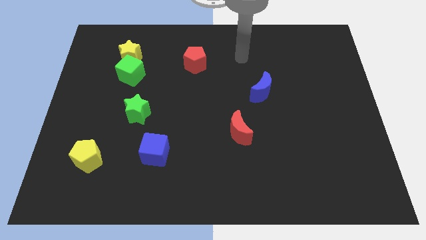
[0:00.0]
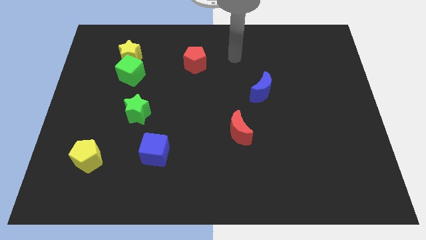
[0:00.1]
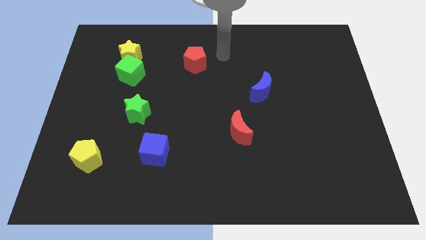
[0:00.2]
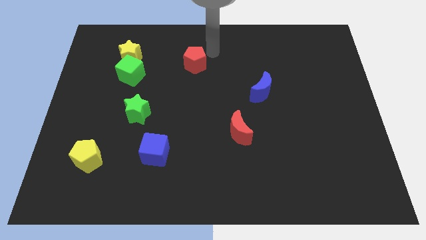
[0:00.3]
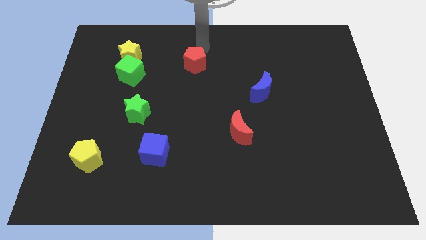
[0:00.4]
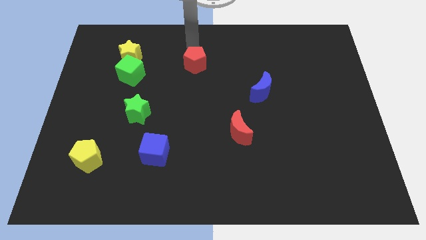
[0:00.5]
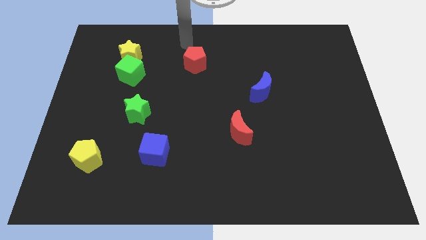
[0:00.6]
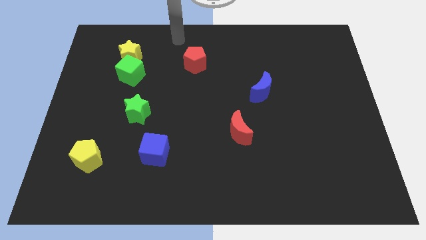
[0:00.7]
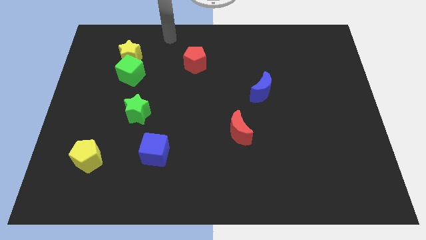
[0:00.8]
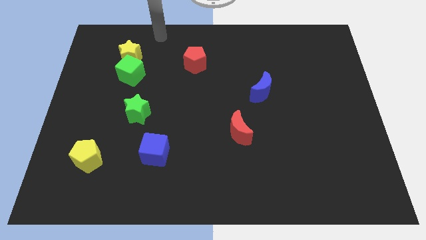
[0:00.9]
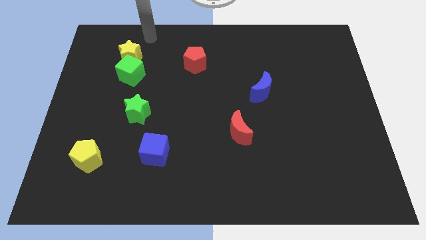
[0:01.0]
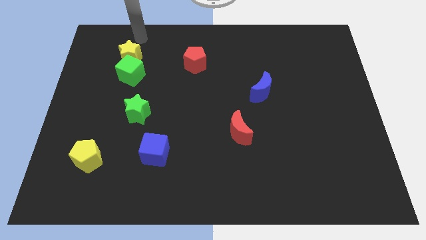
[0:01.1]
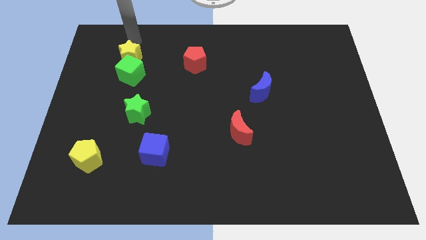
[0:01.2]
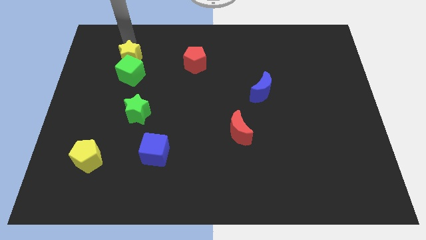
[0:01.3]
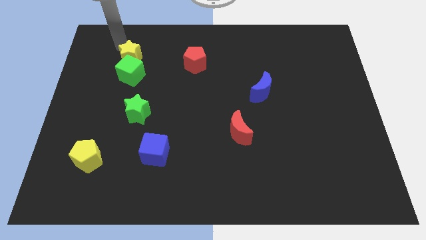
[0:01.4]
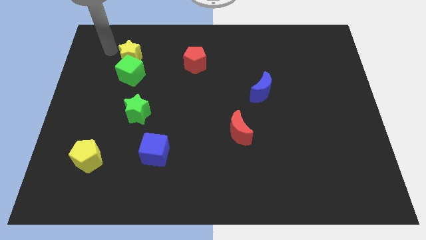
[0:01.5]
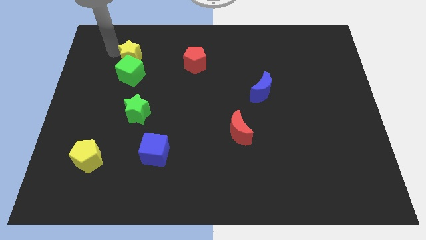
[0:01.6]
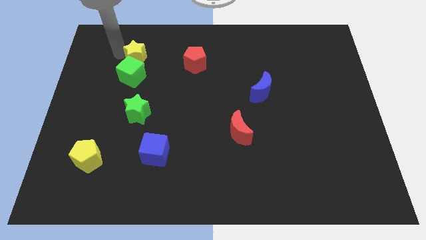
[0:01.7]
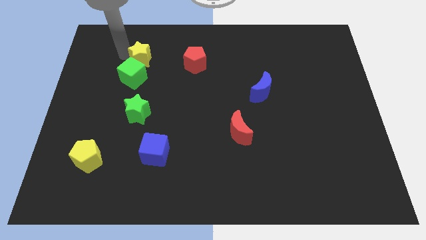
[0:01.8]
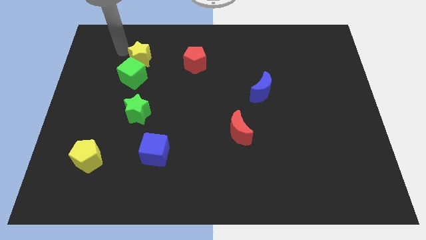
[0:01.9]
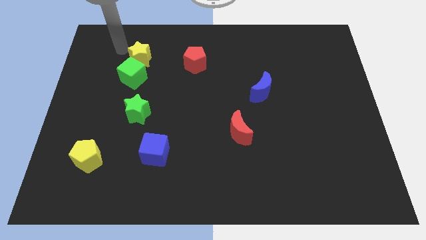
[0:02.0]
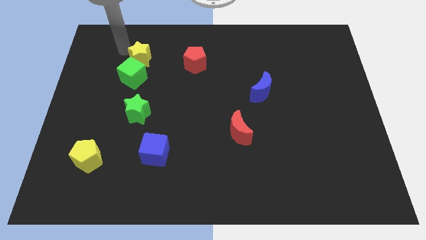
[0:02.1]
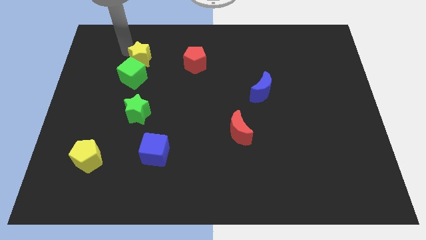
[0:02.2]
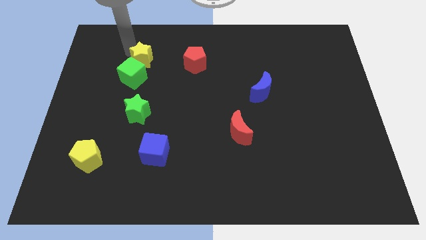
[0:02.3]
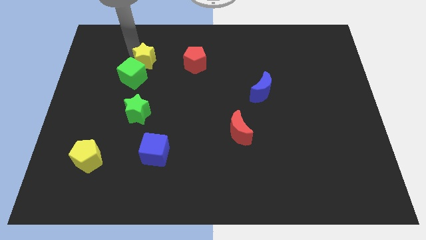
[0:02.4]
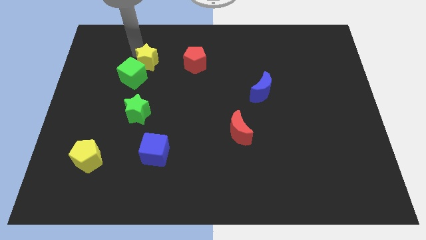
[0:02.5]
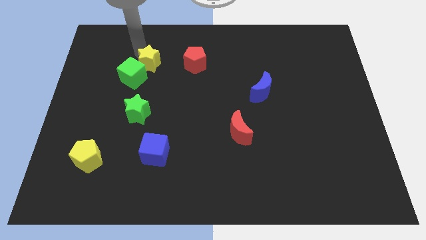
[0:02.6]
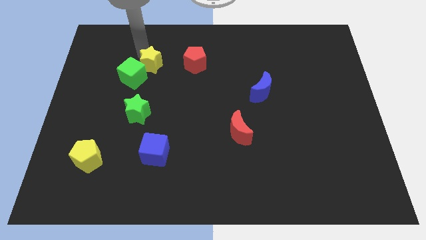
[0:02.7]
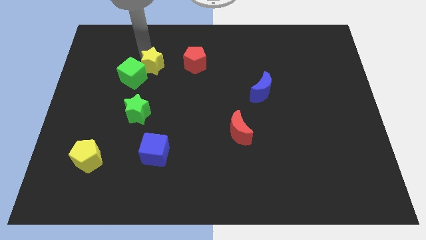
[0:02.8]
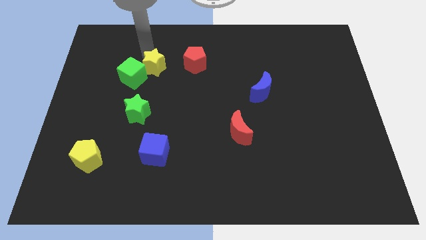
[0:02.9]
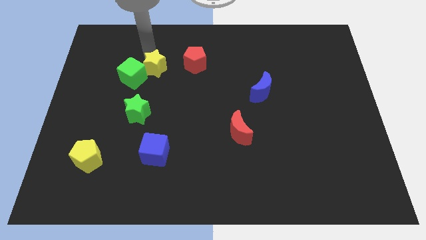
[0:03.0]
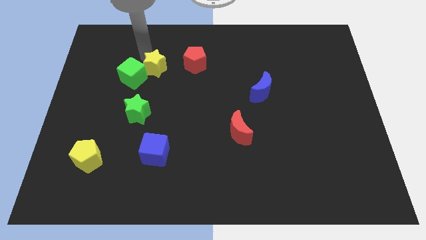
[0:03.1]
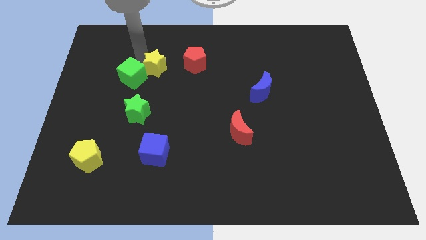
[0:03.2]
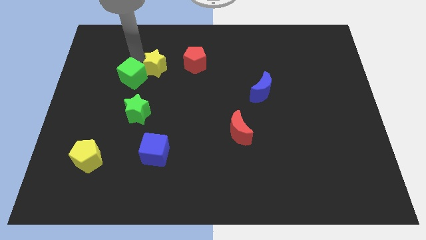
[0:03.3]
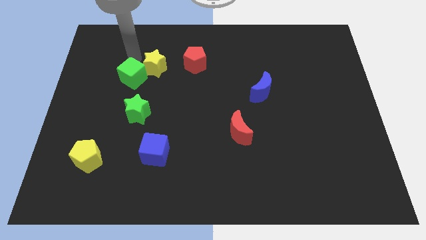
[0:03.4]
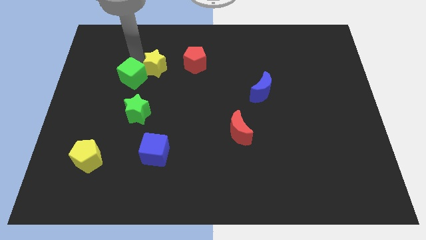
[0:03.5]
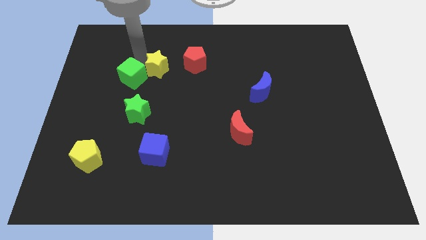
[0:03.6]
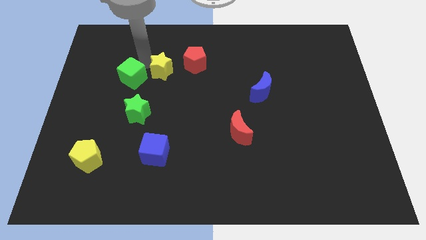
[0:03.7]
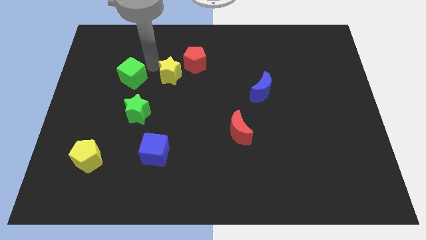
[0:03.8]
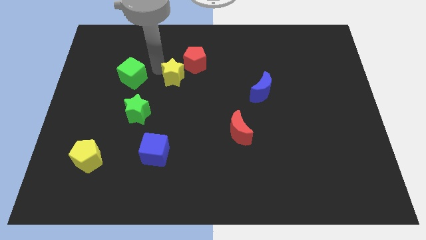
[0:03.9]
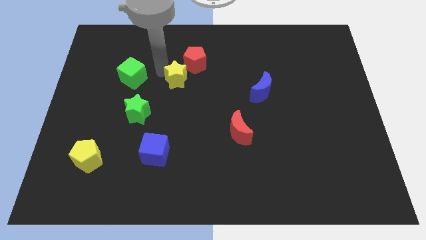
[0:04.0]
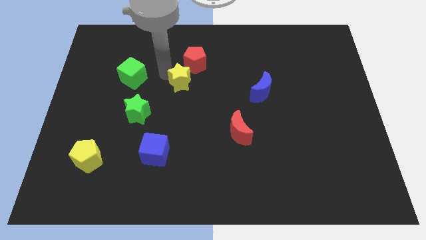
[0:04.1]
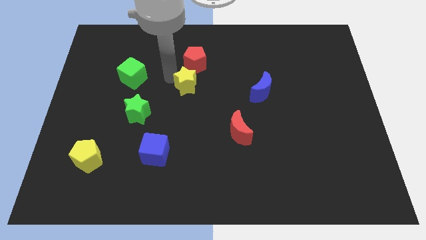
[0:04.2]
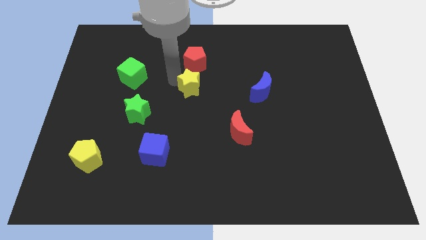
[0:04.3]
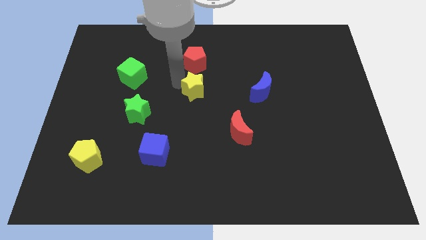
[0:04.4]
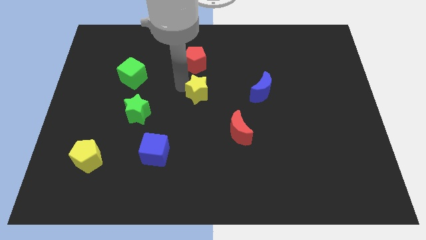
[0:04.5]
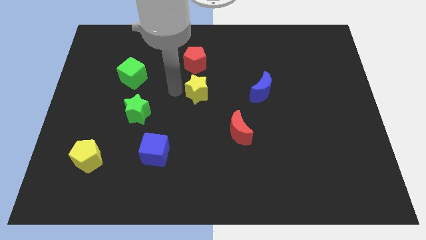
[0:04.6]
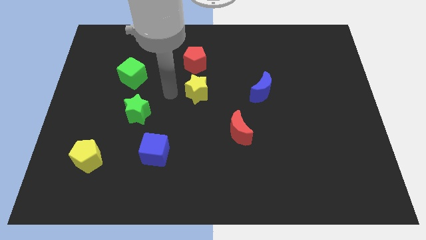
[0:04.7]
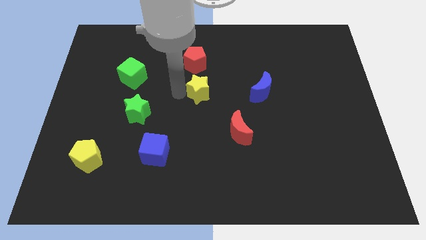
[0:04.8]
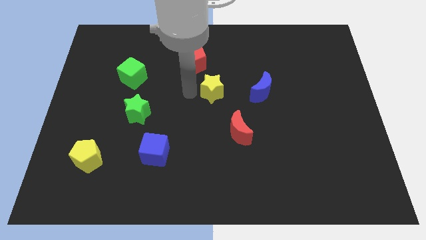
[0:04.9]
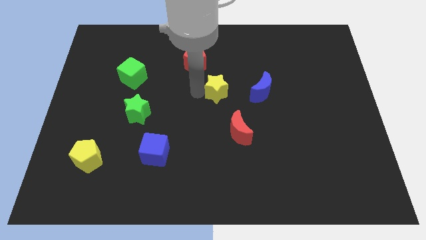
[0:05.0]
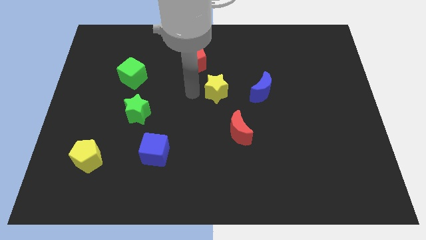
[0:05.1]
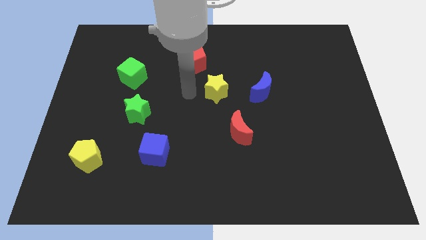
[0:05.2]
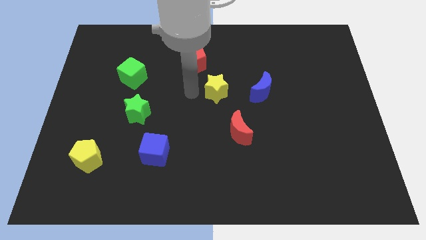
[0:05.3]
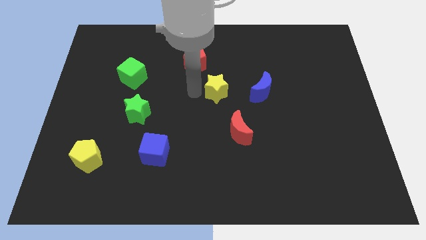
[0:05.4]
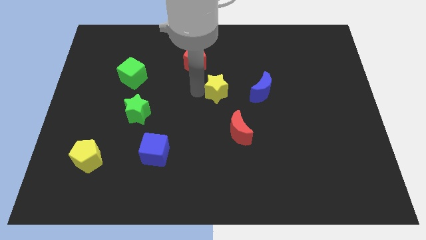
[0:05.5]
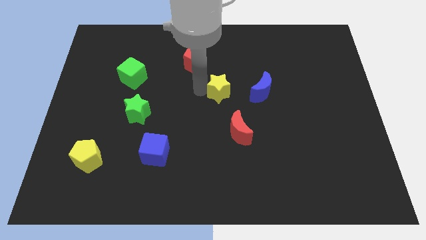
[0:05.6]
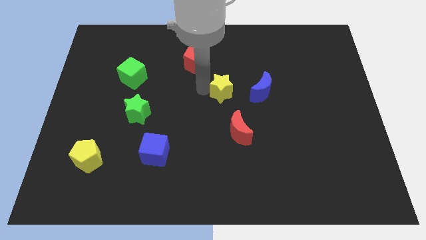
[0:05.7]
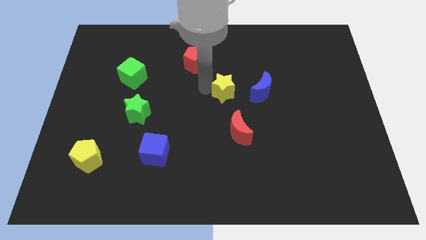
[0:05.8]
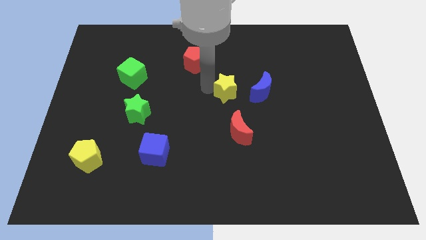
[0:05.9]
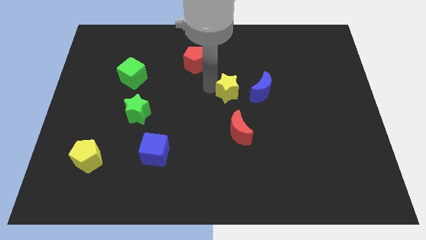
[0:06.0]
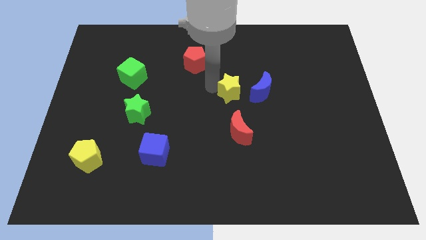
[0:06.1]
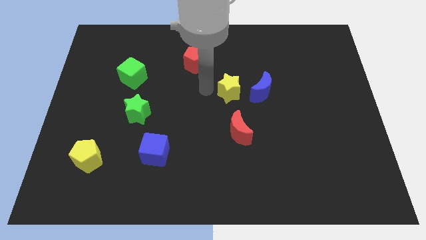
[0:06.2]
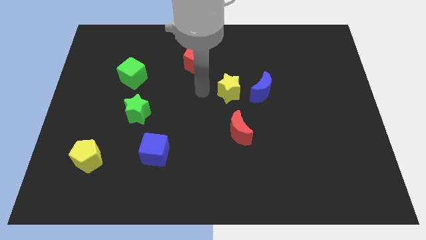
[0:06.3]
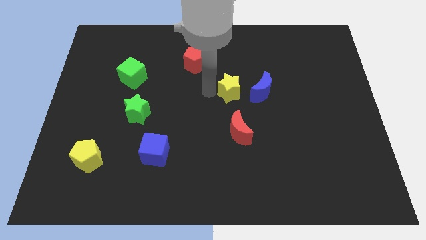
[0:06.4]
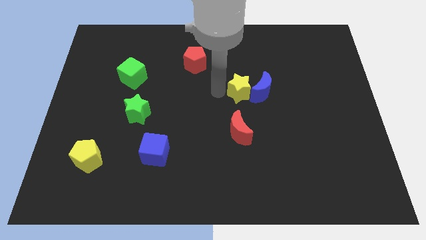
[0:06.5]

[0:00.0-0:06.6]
put the yellow star to the blue moon

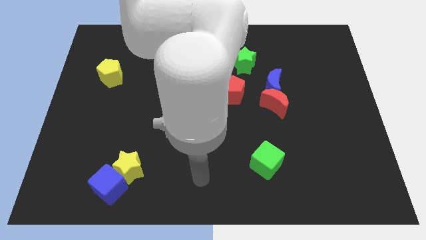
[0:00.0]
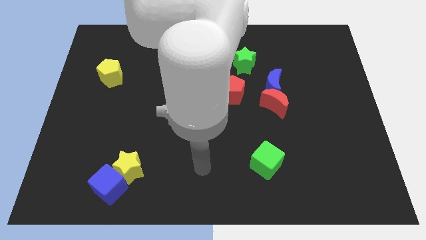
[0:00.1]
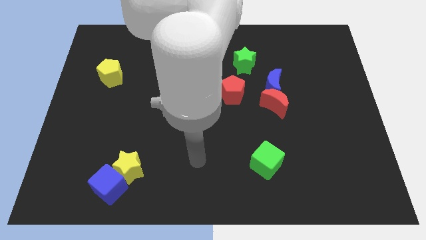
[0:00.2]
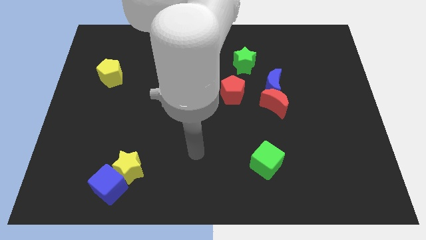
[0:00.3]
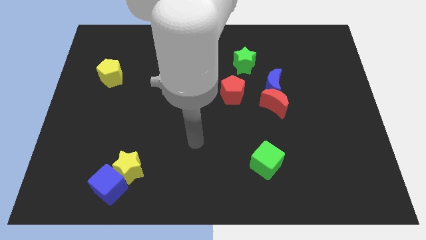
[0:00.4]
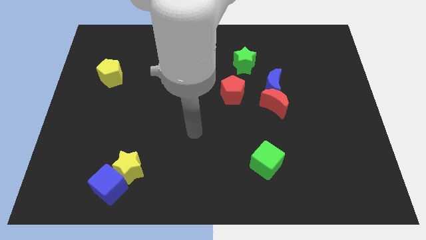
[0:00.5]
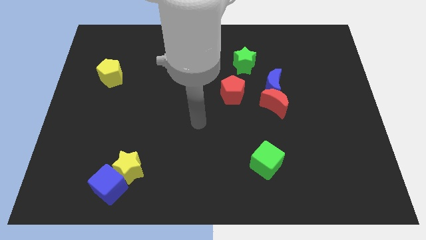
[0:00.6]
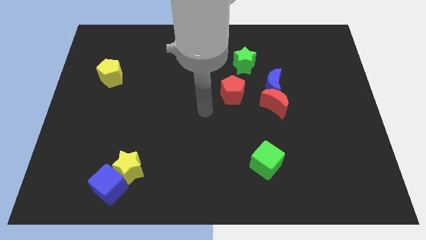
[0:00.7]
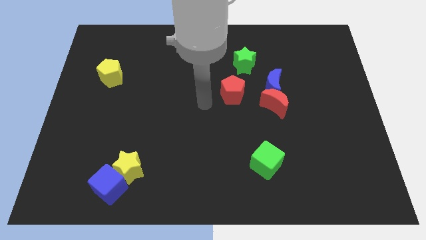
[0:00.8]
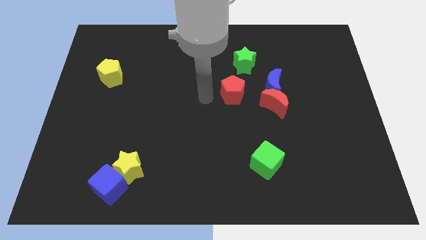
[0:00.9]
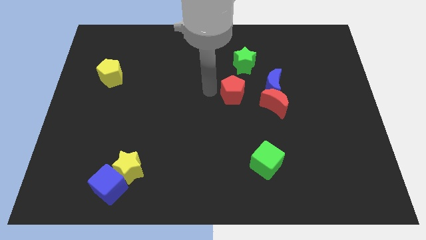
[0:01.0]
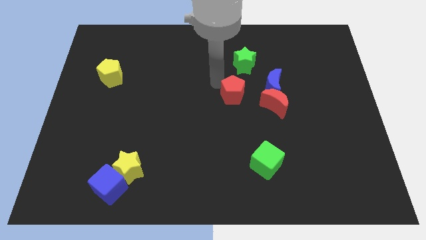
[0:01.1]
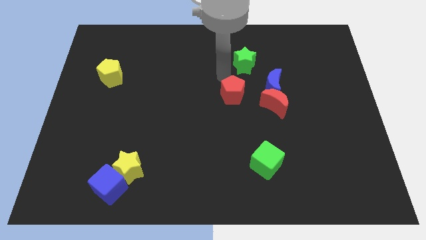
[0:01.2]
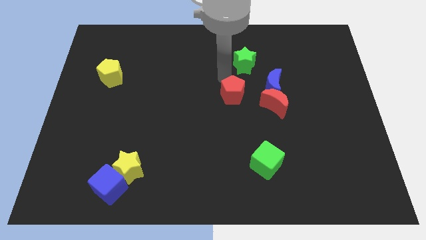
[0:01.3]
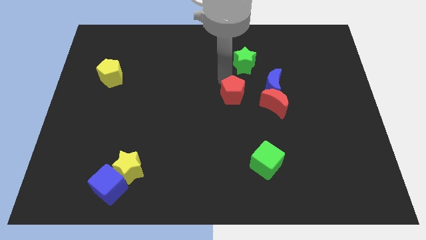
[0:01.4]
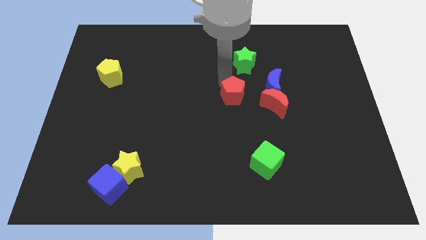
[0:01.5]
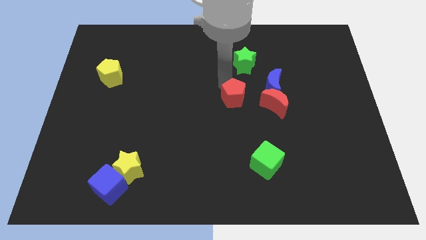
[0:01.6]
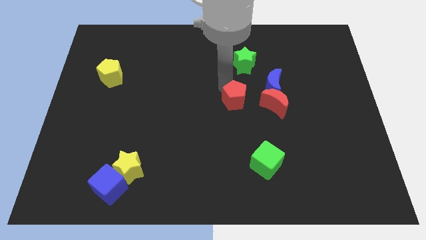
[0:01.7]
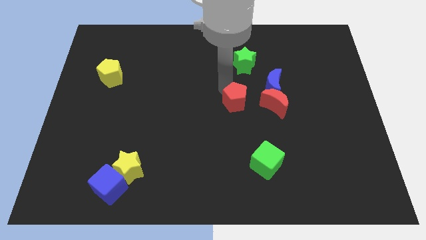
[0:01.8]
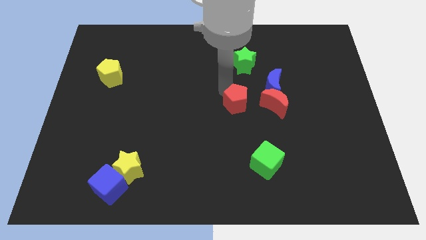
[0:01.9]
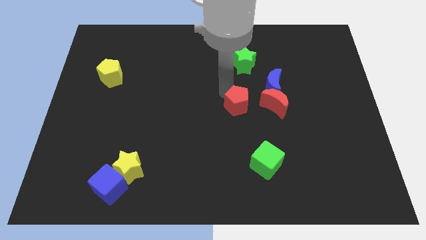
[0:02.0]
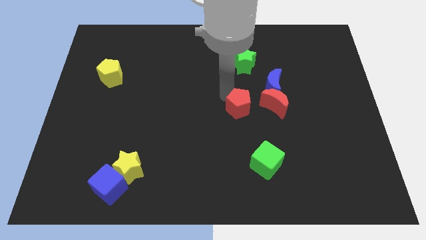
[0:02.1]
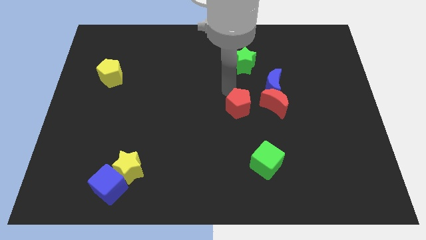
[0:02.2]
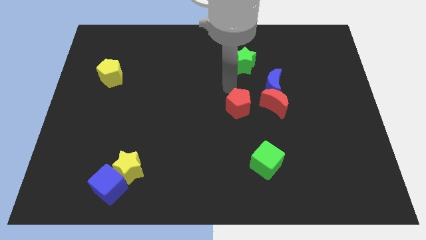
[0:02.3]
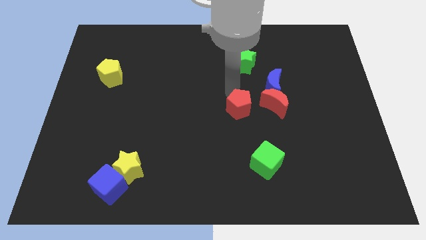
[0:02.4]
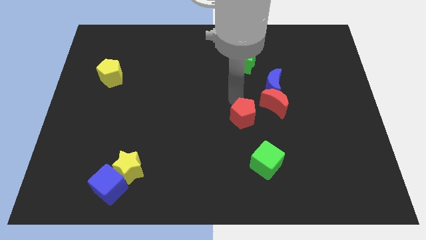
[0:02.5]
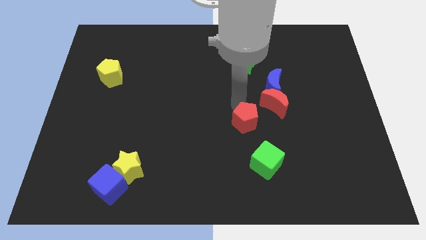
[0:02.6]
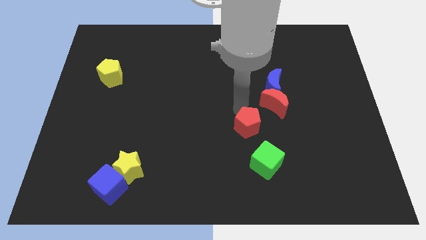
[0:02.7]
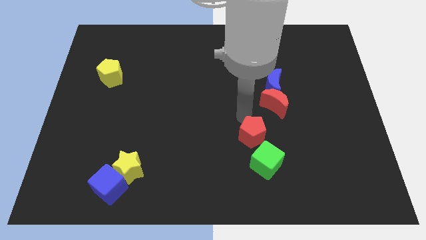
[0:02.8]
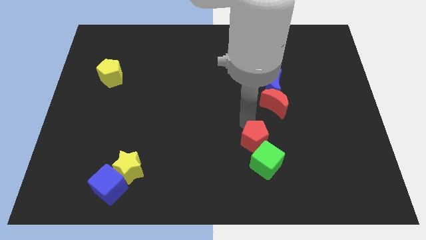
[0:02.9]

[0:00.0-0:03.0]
move the red pentagon towards the green cube
